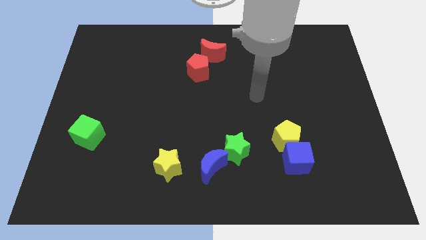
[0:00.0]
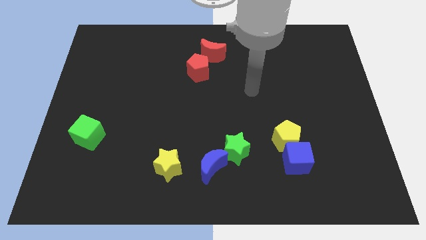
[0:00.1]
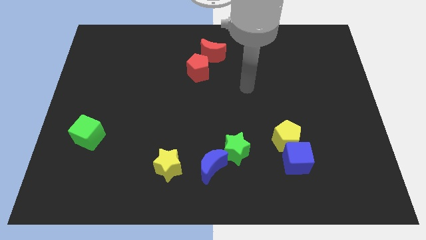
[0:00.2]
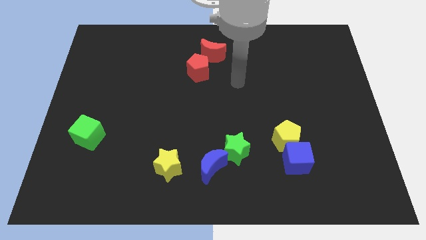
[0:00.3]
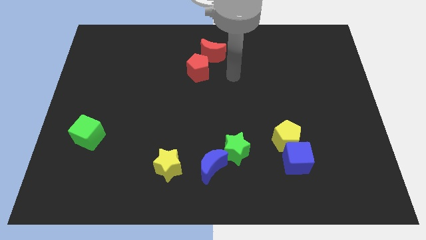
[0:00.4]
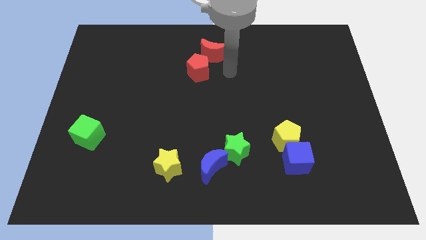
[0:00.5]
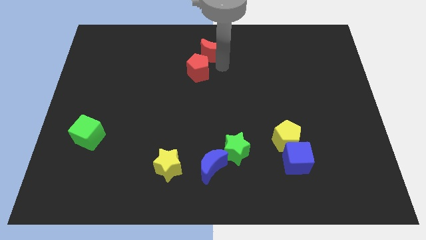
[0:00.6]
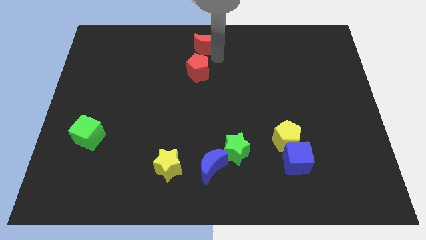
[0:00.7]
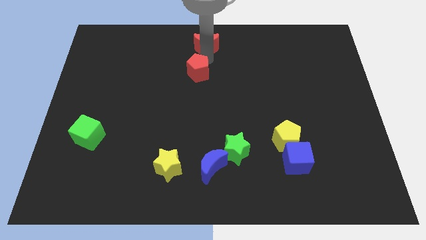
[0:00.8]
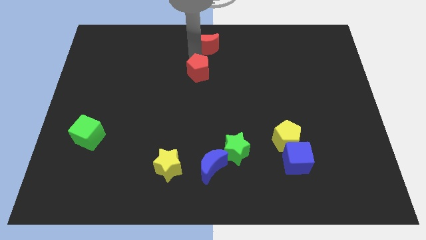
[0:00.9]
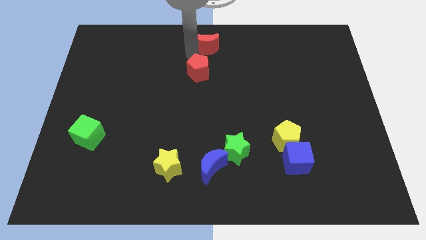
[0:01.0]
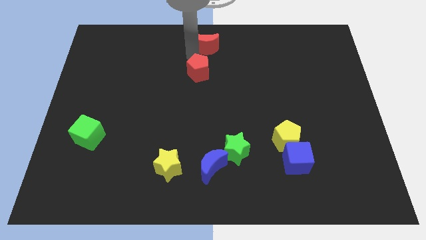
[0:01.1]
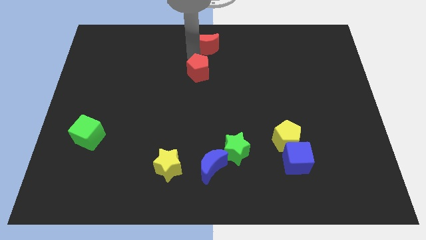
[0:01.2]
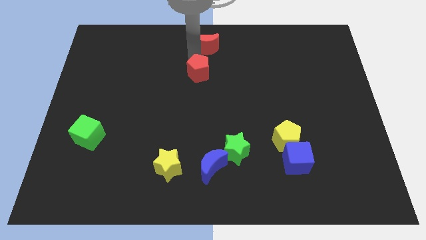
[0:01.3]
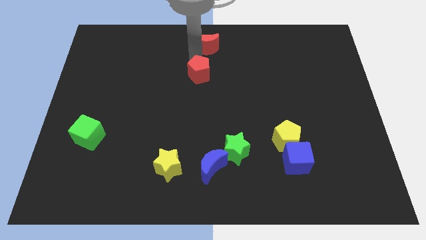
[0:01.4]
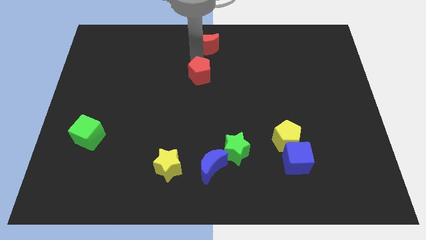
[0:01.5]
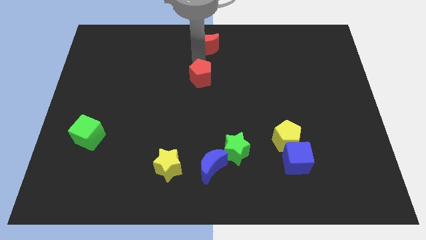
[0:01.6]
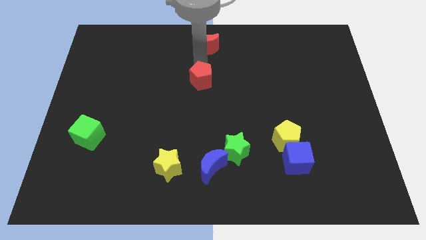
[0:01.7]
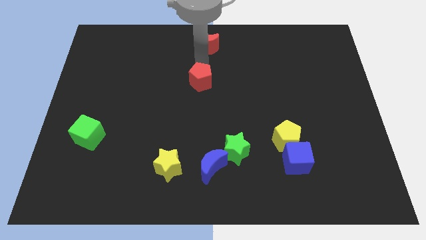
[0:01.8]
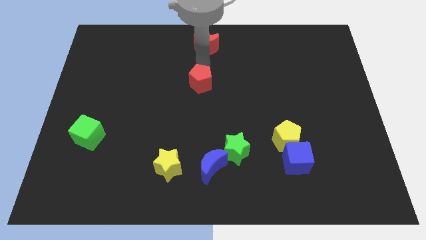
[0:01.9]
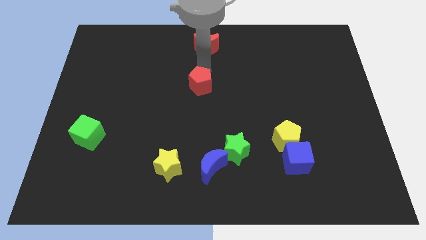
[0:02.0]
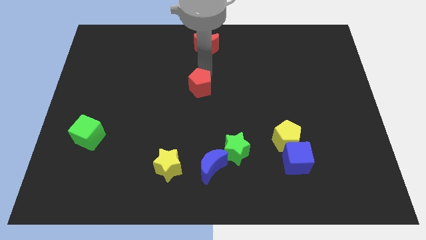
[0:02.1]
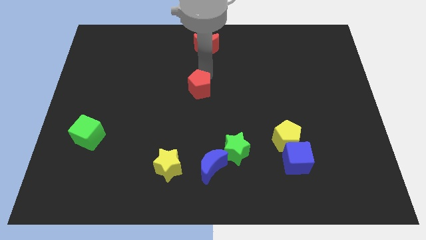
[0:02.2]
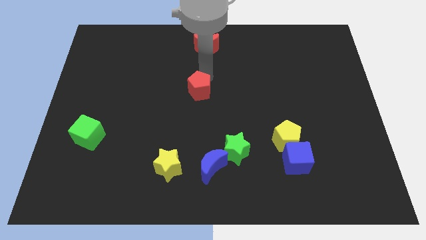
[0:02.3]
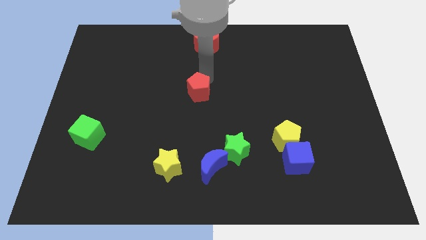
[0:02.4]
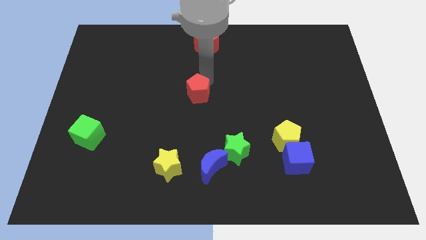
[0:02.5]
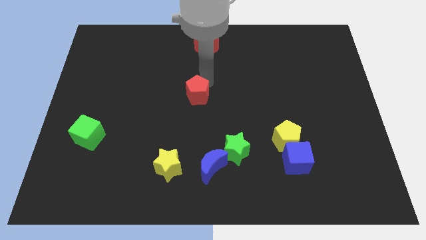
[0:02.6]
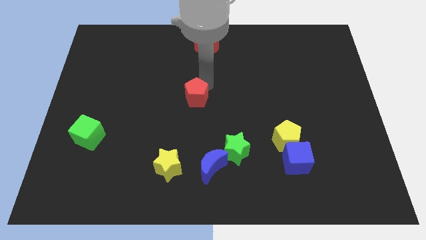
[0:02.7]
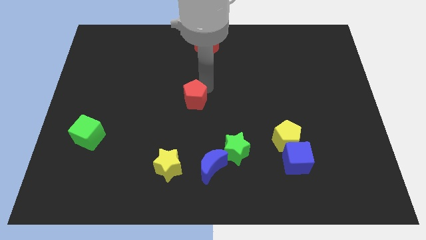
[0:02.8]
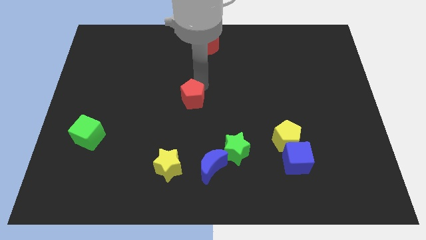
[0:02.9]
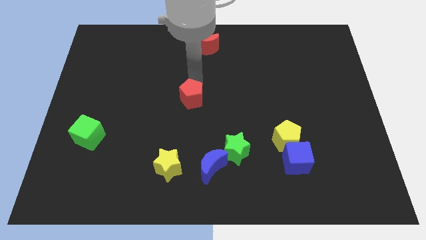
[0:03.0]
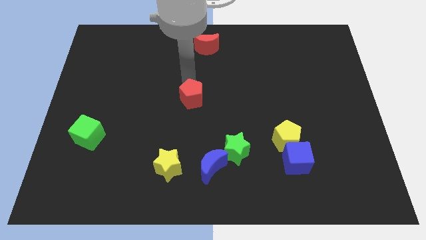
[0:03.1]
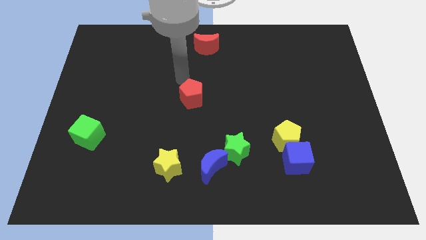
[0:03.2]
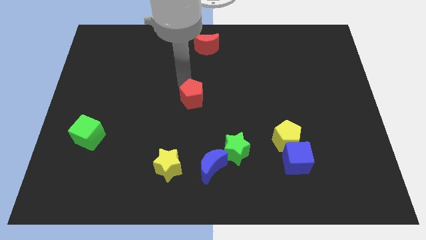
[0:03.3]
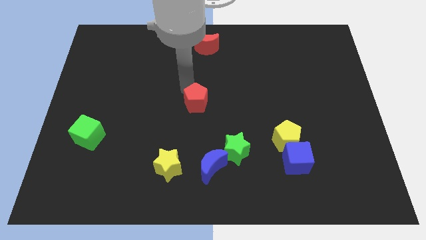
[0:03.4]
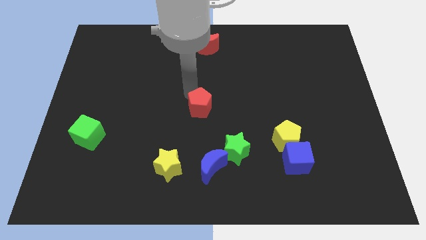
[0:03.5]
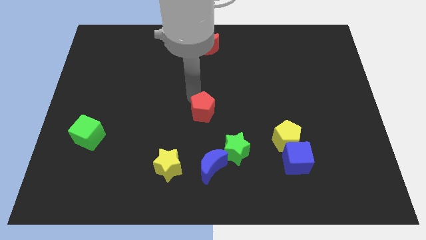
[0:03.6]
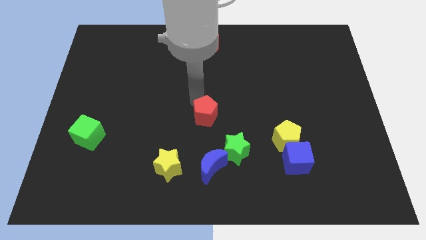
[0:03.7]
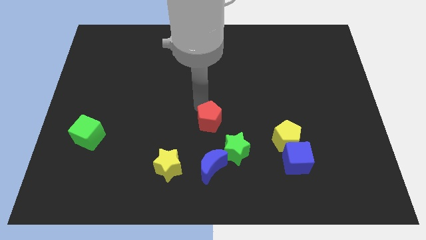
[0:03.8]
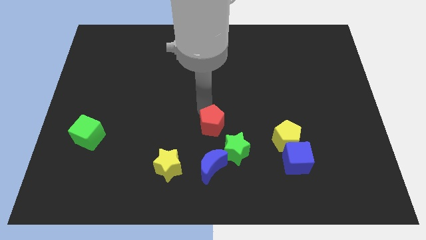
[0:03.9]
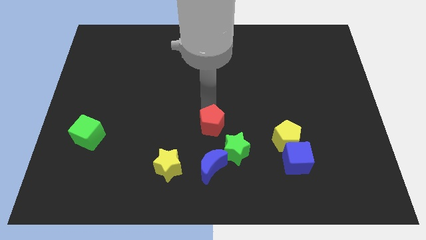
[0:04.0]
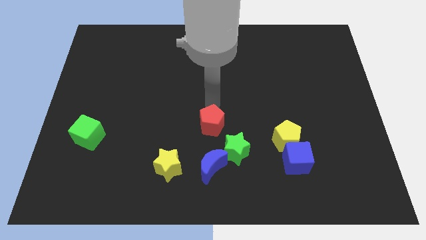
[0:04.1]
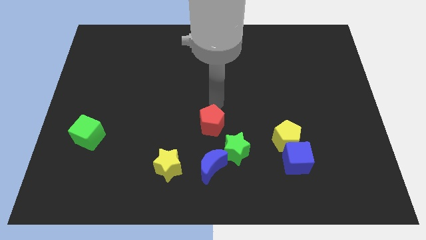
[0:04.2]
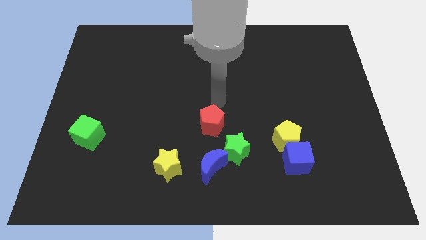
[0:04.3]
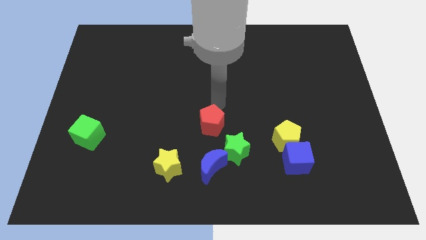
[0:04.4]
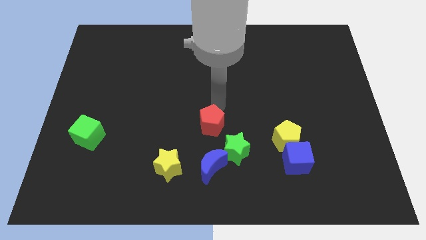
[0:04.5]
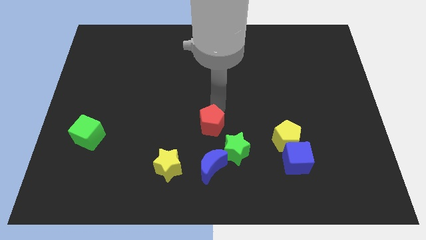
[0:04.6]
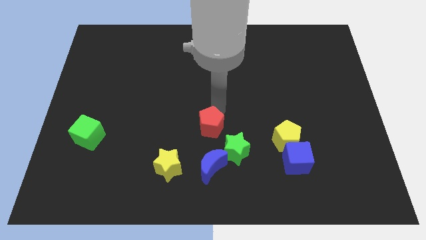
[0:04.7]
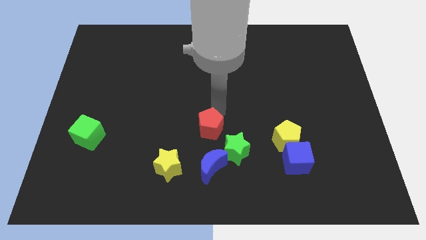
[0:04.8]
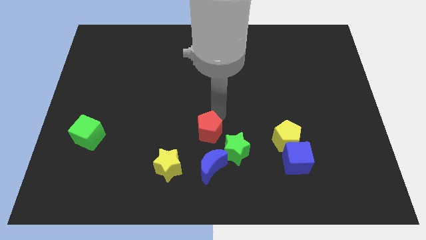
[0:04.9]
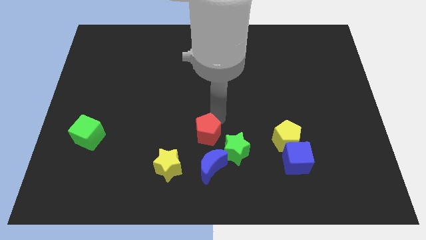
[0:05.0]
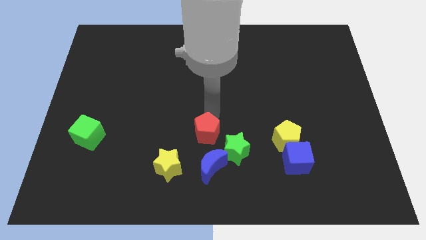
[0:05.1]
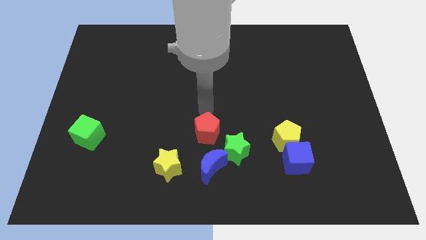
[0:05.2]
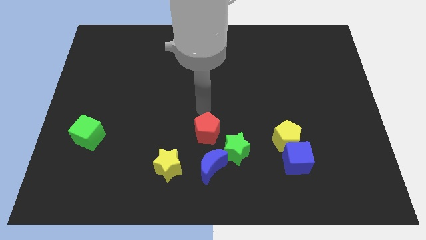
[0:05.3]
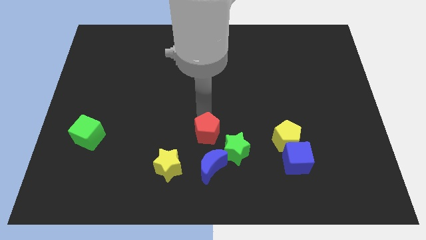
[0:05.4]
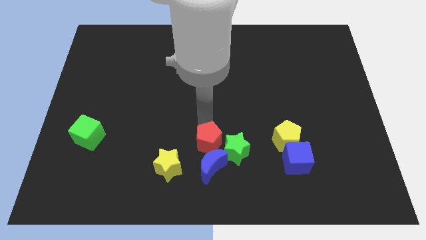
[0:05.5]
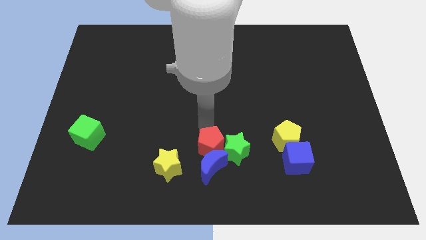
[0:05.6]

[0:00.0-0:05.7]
put the red pentagon close to the blue moon
